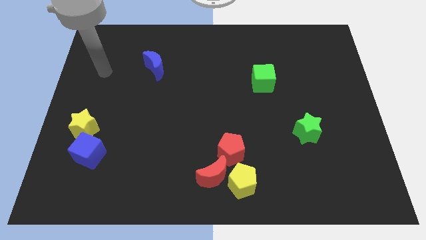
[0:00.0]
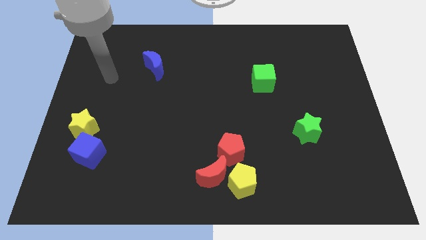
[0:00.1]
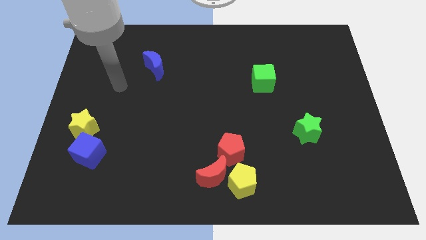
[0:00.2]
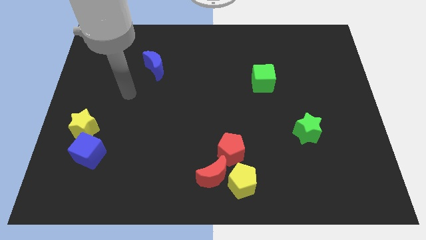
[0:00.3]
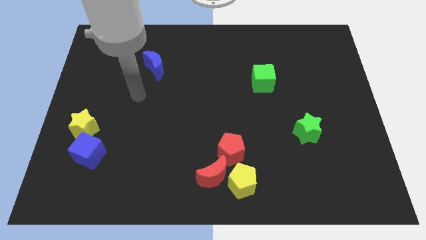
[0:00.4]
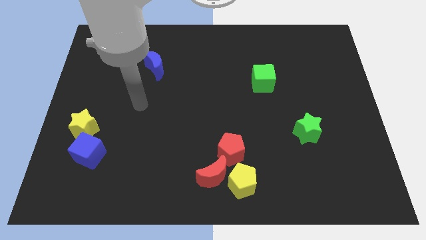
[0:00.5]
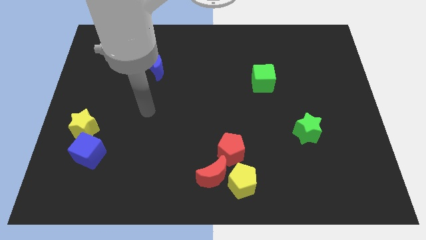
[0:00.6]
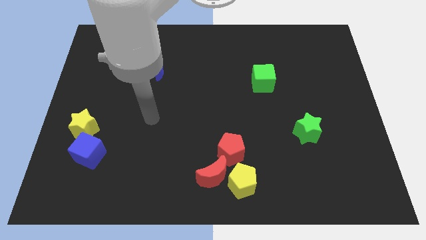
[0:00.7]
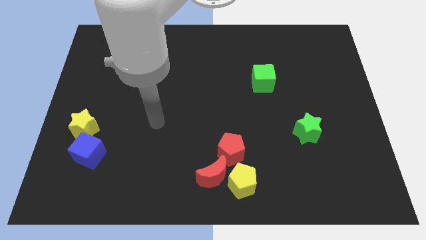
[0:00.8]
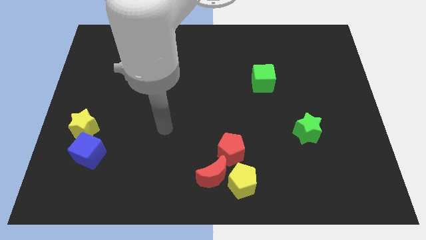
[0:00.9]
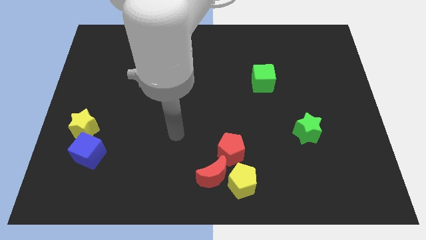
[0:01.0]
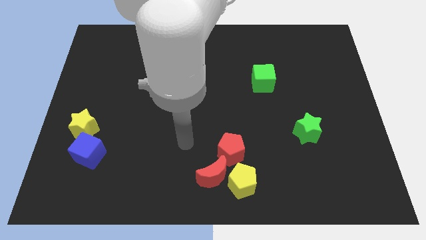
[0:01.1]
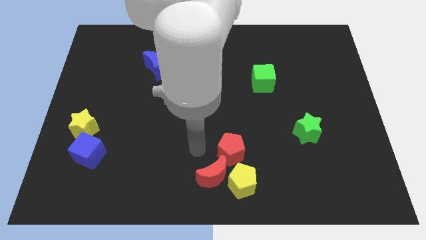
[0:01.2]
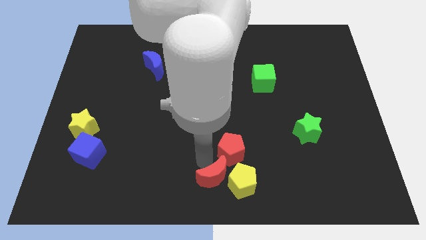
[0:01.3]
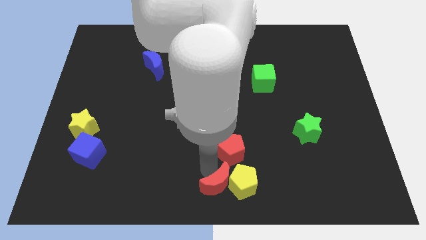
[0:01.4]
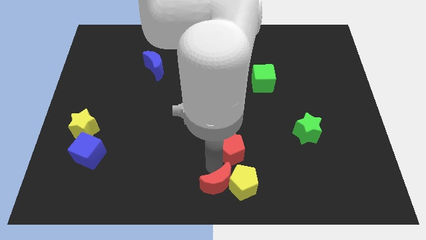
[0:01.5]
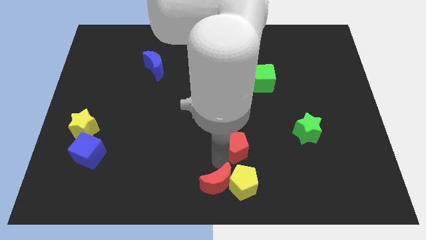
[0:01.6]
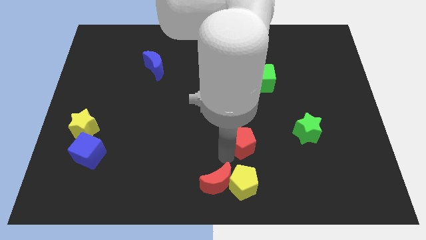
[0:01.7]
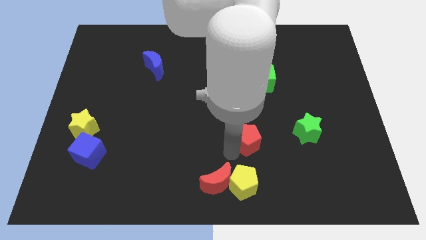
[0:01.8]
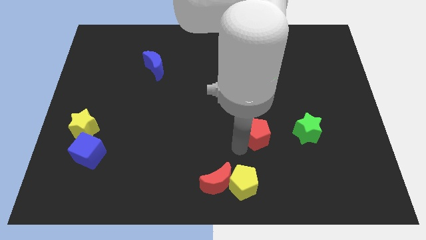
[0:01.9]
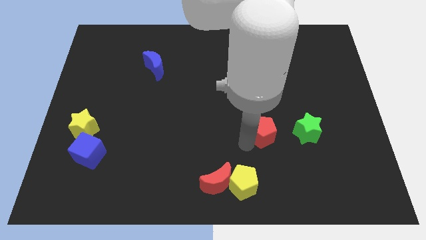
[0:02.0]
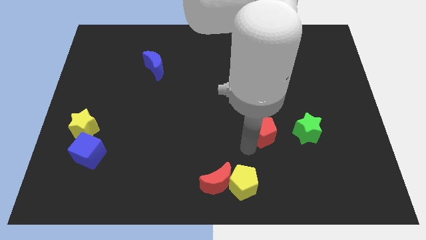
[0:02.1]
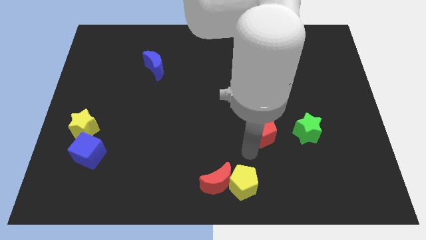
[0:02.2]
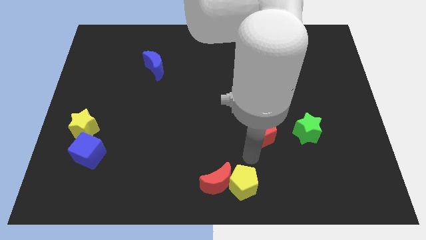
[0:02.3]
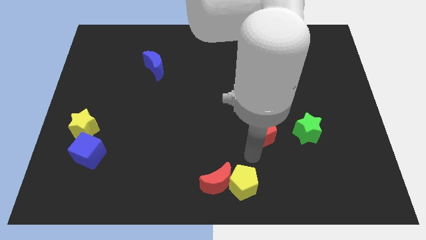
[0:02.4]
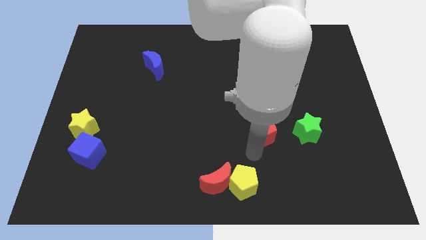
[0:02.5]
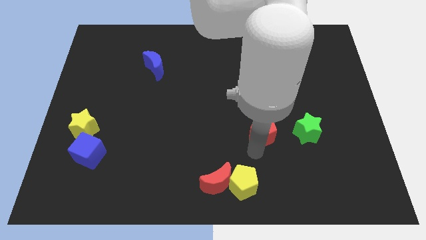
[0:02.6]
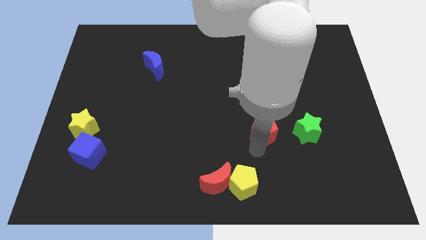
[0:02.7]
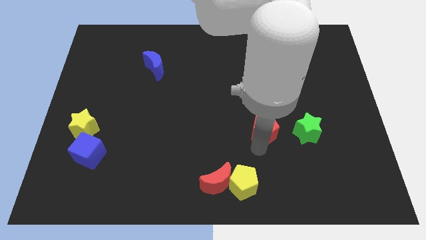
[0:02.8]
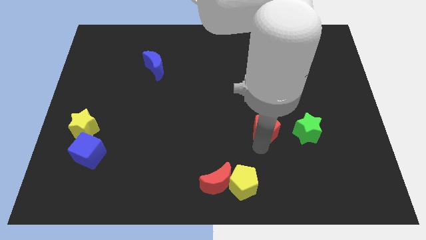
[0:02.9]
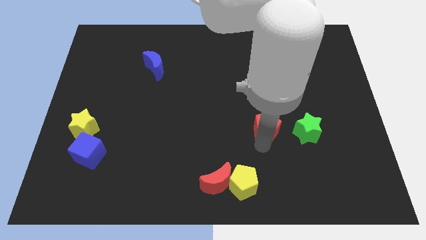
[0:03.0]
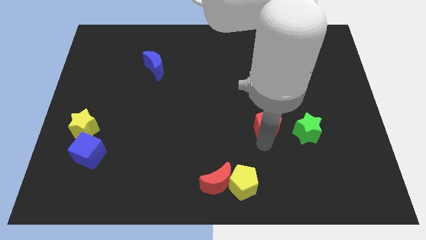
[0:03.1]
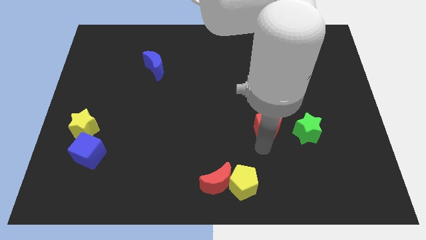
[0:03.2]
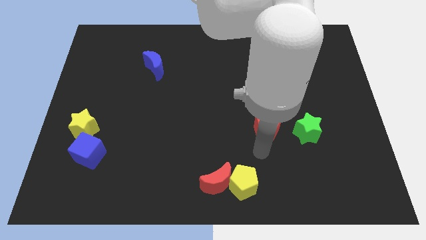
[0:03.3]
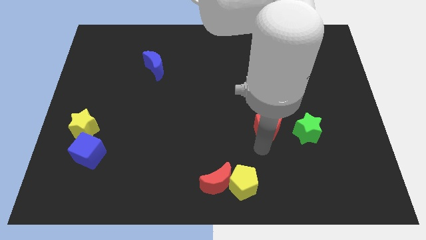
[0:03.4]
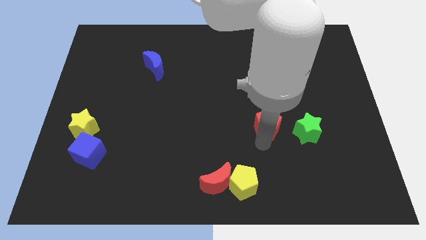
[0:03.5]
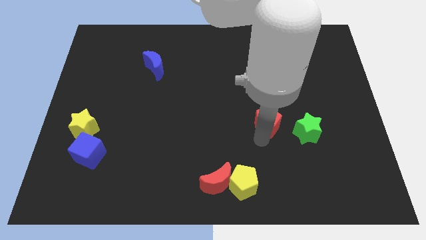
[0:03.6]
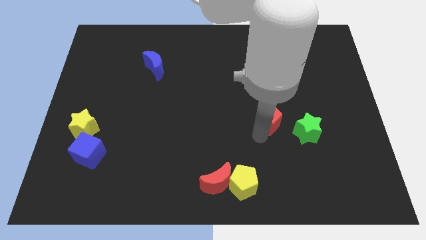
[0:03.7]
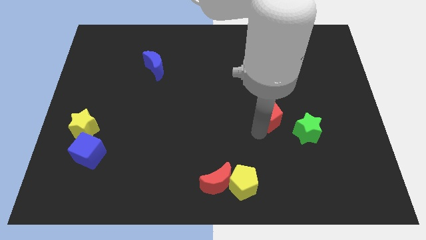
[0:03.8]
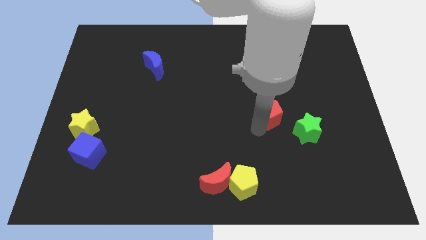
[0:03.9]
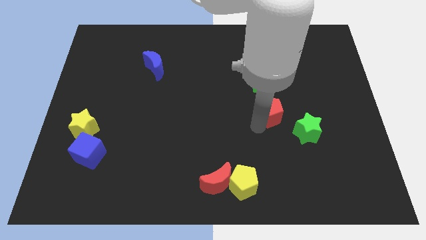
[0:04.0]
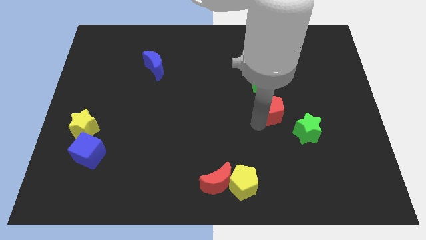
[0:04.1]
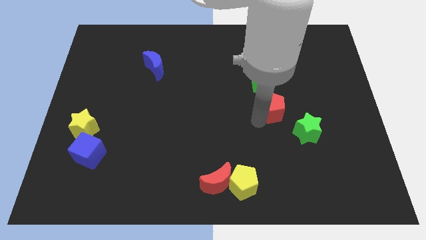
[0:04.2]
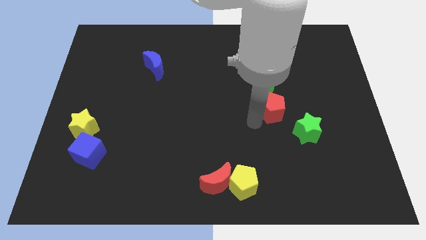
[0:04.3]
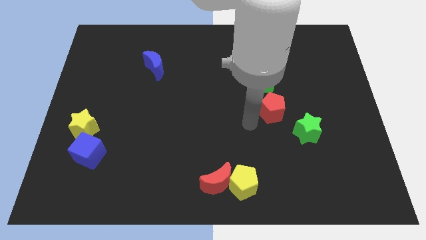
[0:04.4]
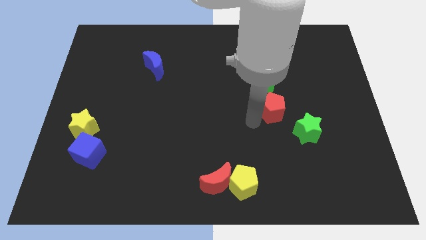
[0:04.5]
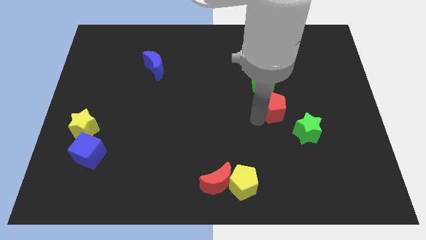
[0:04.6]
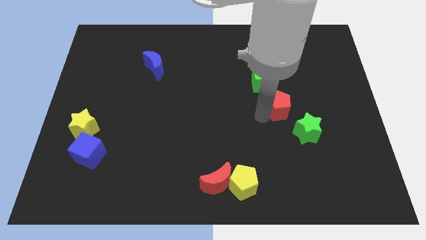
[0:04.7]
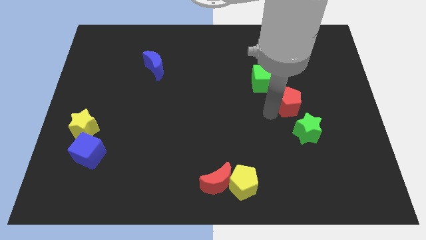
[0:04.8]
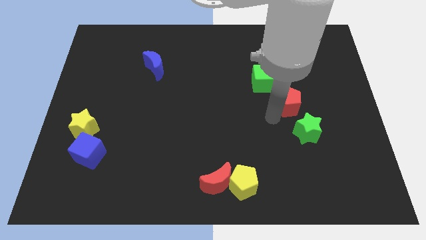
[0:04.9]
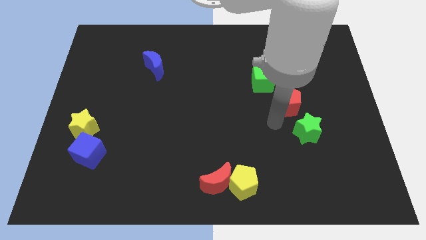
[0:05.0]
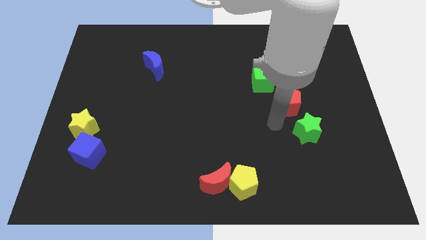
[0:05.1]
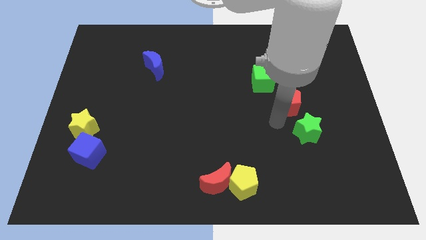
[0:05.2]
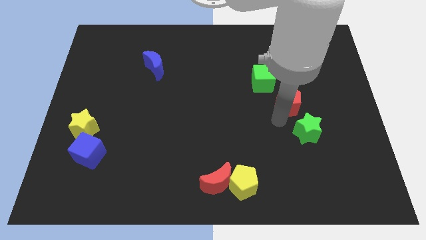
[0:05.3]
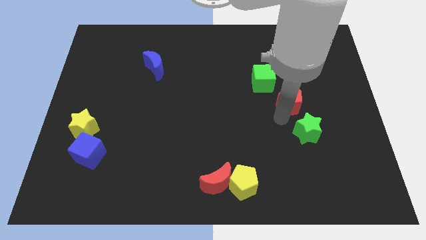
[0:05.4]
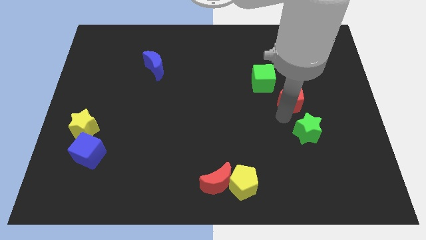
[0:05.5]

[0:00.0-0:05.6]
move the red pentagon up and to the right diagonally

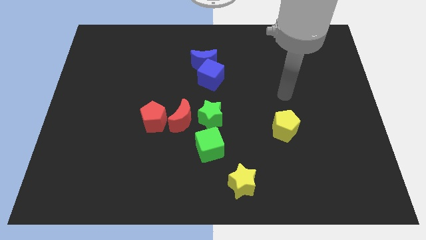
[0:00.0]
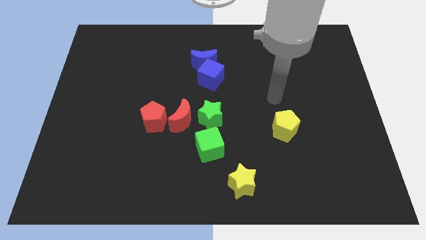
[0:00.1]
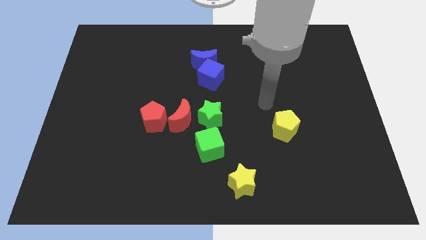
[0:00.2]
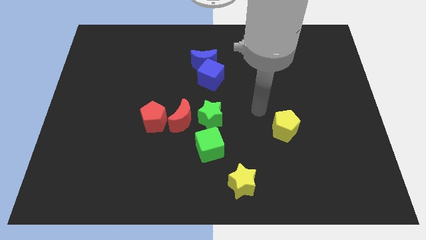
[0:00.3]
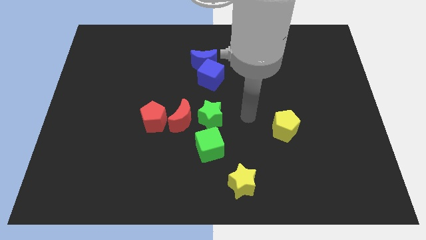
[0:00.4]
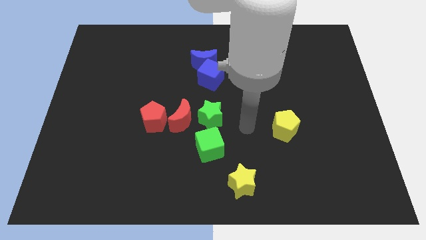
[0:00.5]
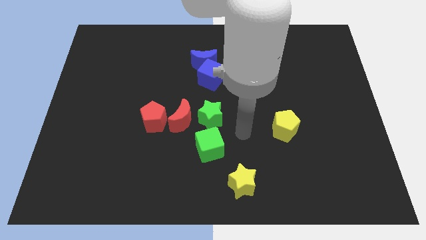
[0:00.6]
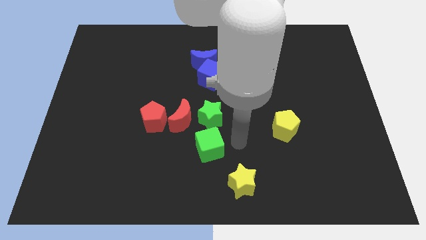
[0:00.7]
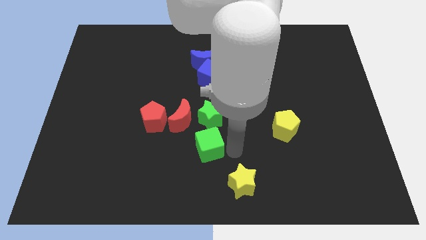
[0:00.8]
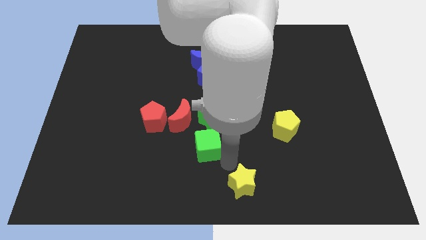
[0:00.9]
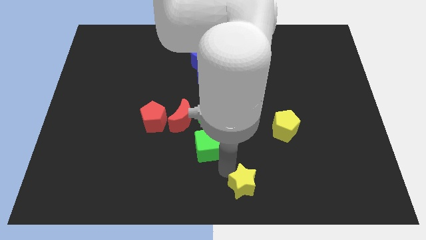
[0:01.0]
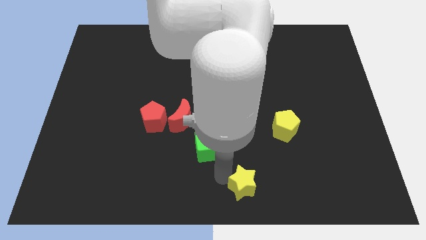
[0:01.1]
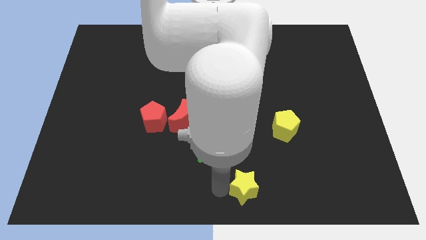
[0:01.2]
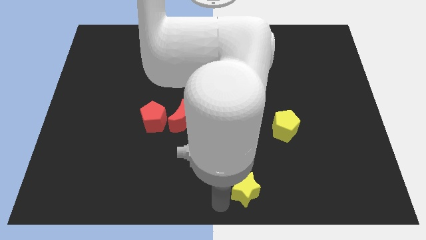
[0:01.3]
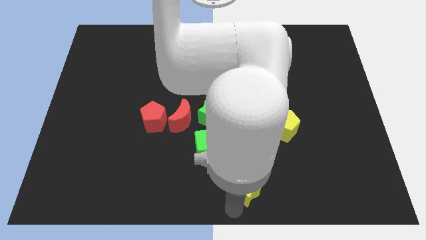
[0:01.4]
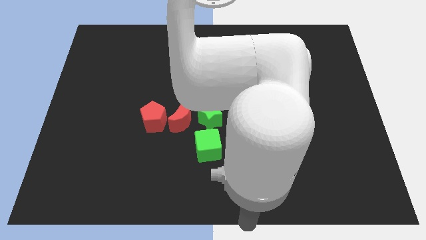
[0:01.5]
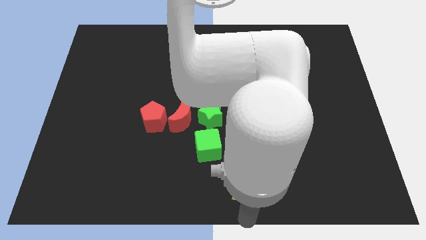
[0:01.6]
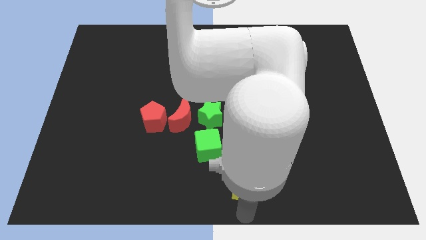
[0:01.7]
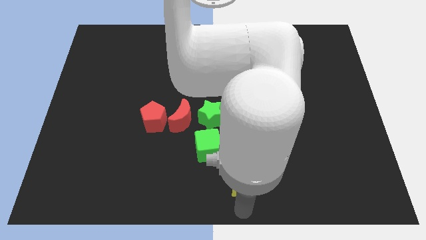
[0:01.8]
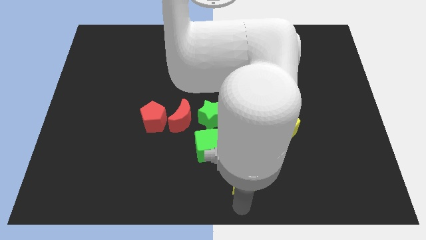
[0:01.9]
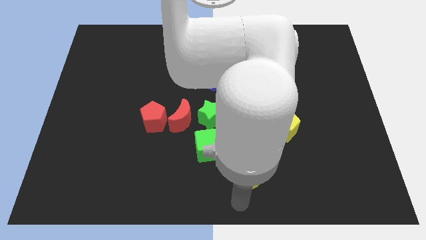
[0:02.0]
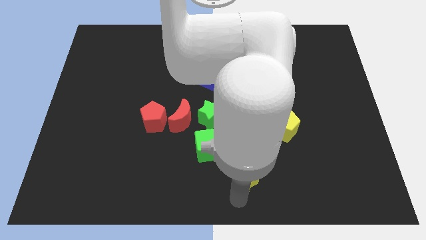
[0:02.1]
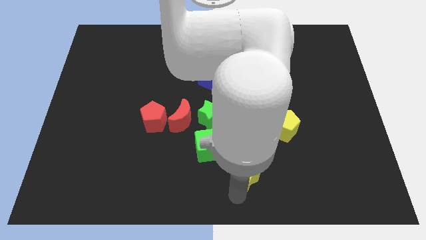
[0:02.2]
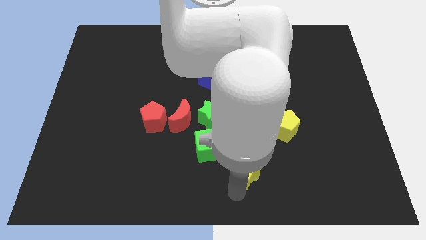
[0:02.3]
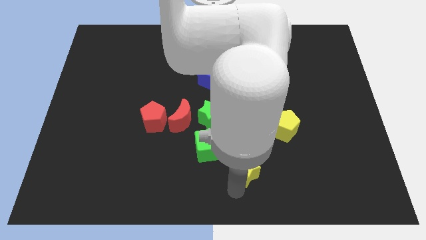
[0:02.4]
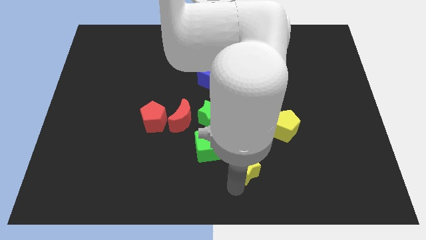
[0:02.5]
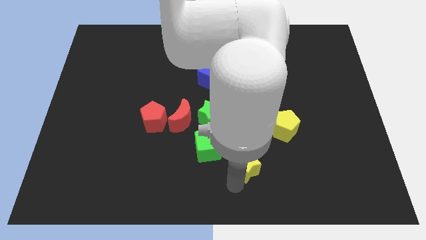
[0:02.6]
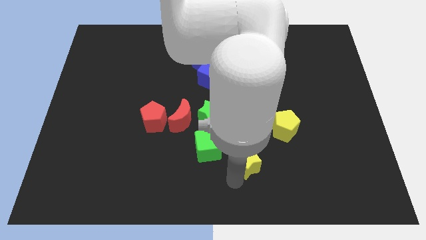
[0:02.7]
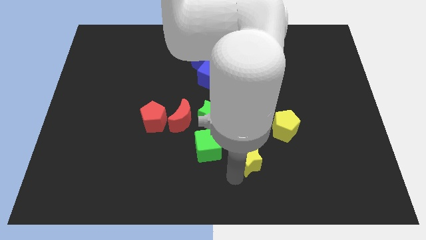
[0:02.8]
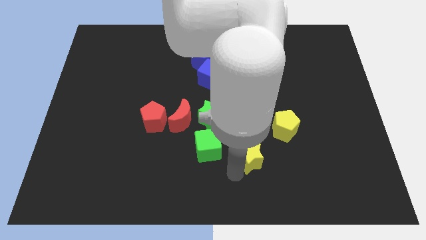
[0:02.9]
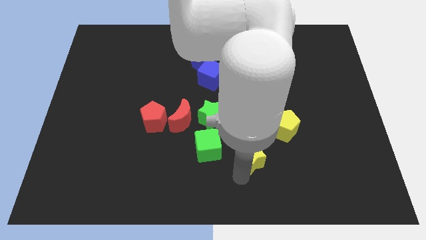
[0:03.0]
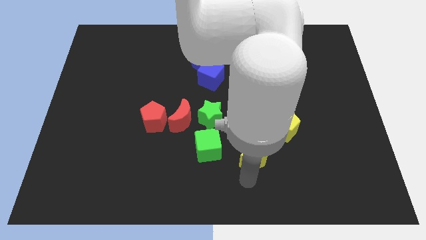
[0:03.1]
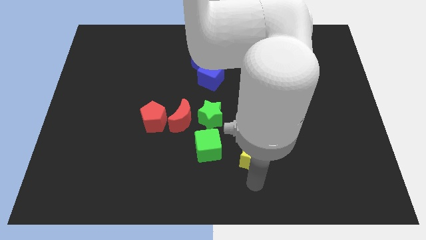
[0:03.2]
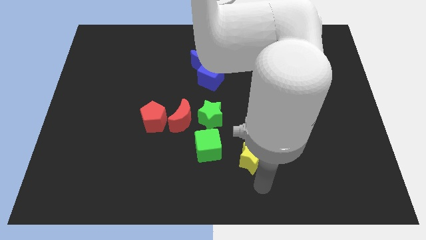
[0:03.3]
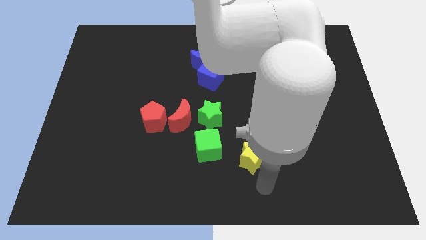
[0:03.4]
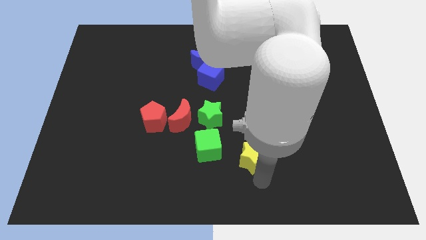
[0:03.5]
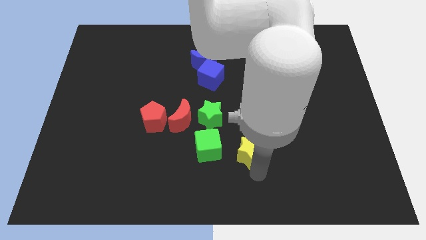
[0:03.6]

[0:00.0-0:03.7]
slide the yellow star up slightly
